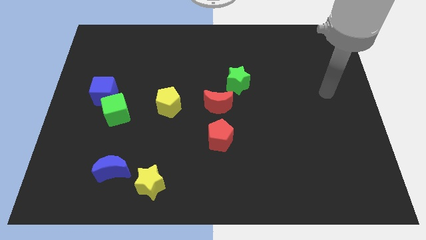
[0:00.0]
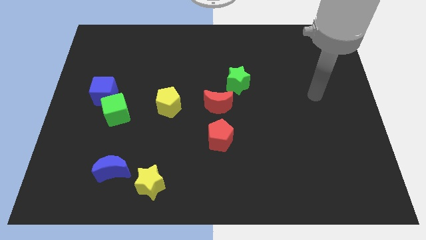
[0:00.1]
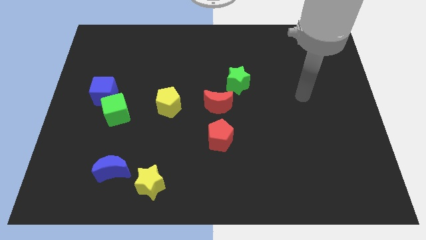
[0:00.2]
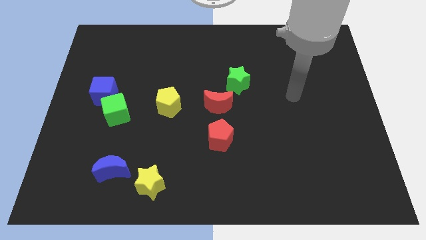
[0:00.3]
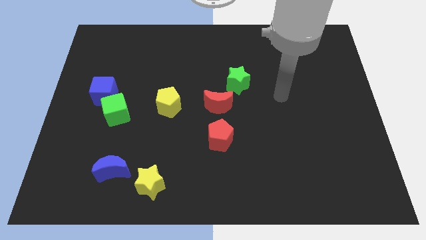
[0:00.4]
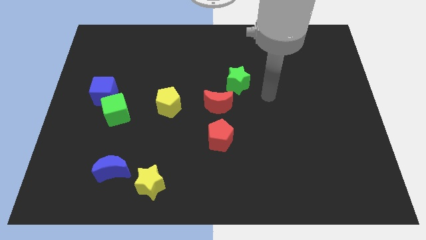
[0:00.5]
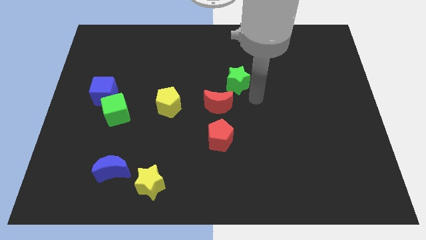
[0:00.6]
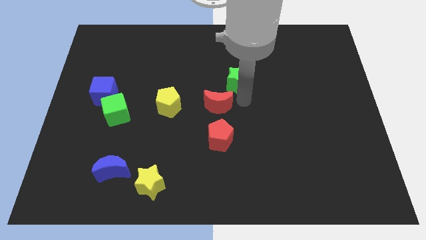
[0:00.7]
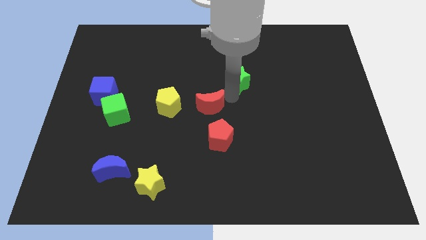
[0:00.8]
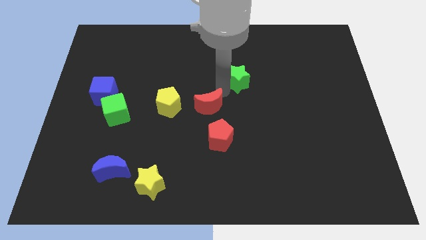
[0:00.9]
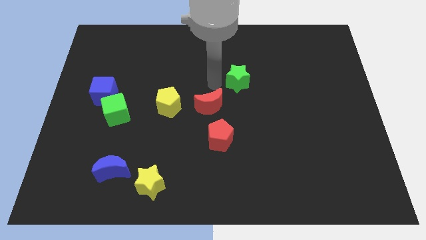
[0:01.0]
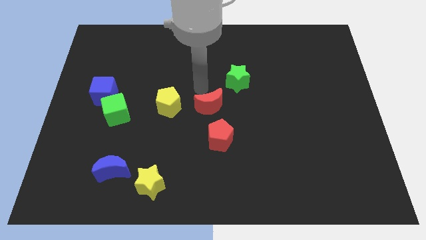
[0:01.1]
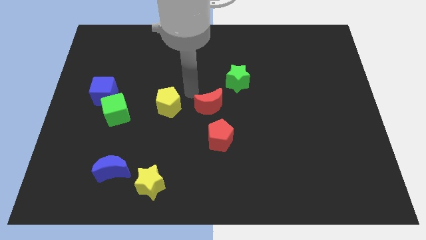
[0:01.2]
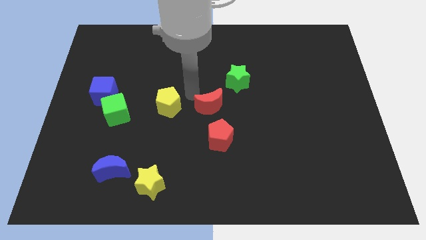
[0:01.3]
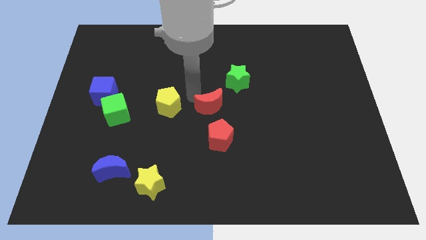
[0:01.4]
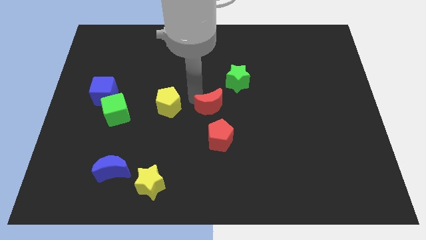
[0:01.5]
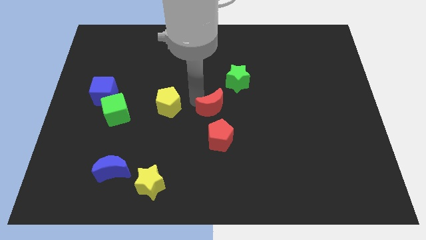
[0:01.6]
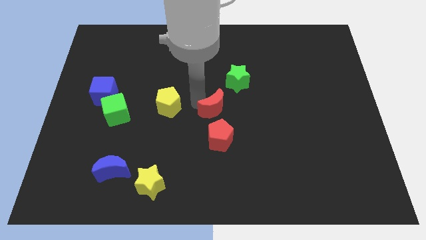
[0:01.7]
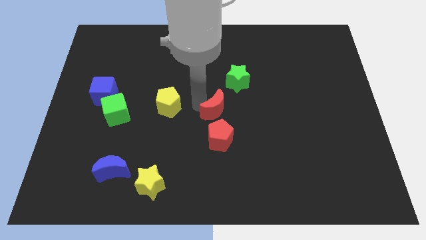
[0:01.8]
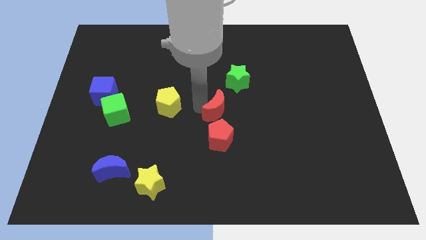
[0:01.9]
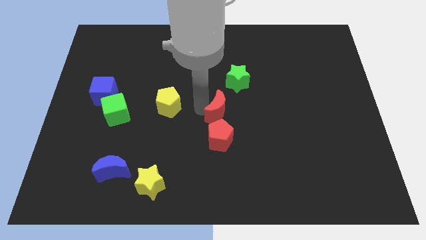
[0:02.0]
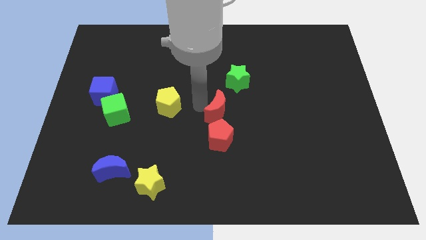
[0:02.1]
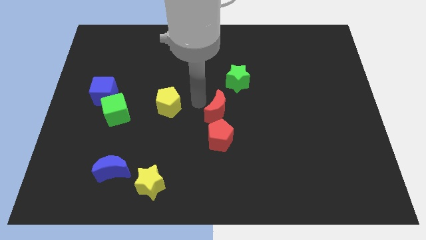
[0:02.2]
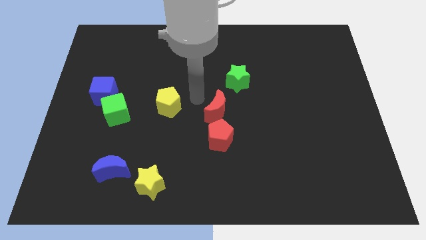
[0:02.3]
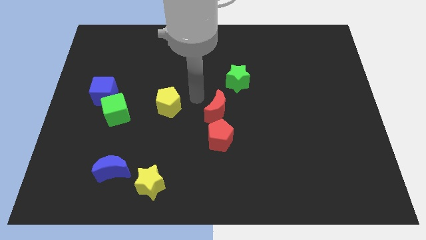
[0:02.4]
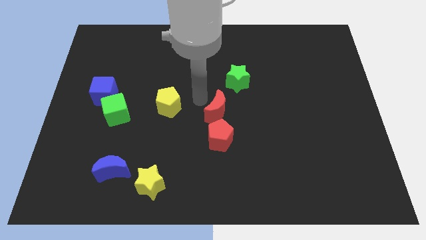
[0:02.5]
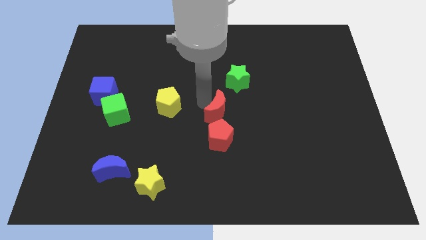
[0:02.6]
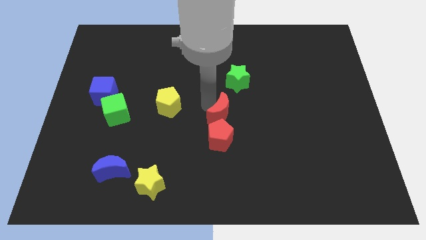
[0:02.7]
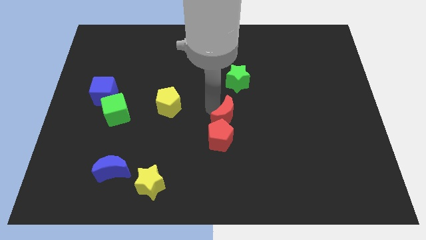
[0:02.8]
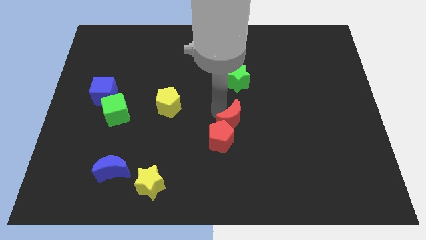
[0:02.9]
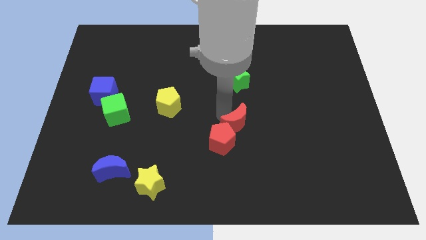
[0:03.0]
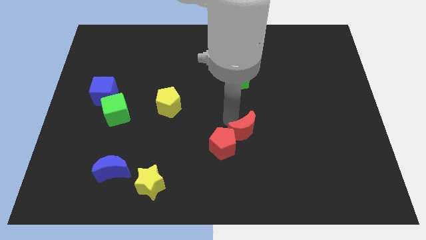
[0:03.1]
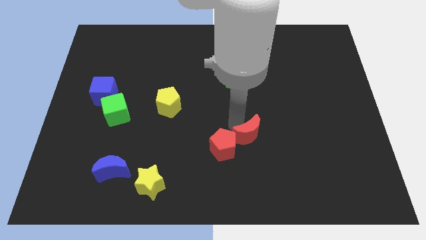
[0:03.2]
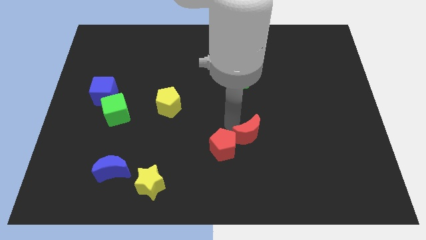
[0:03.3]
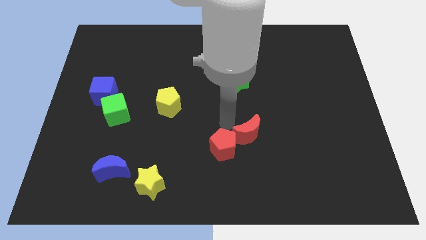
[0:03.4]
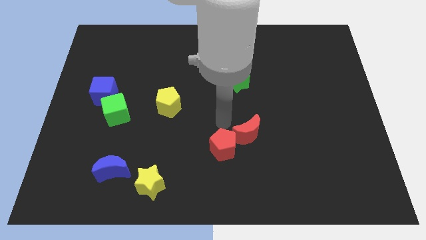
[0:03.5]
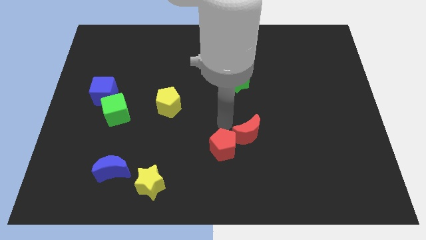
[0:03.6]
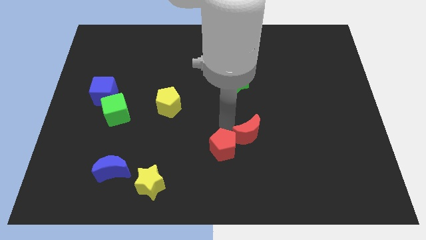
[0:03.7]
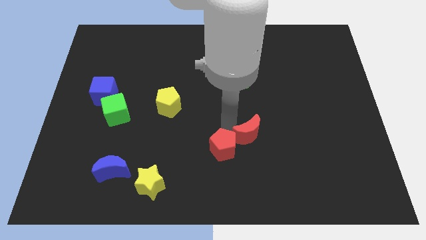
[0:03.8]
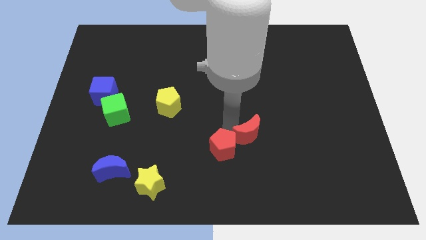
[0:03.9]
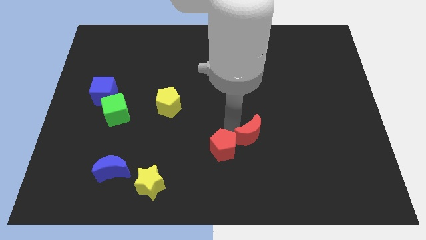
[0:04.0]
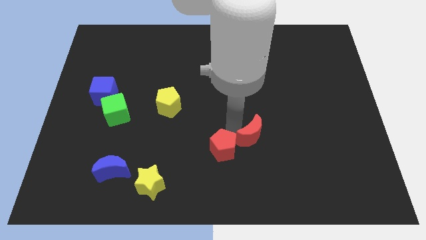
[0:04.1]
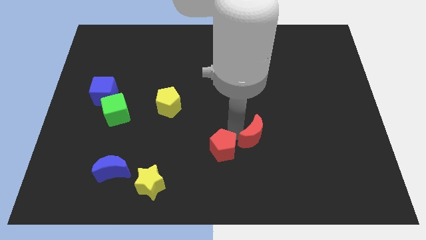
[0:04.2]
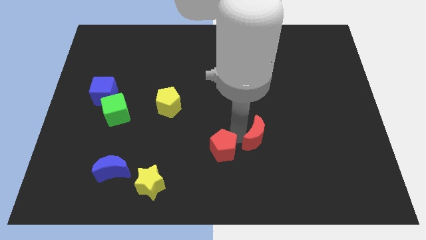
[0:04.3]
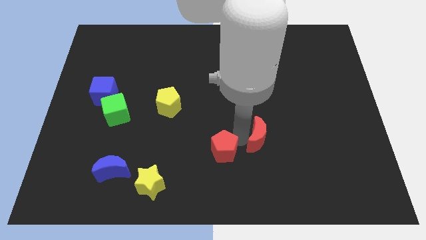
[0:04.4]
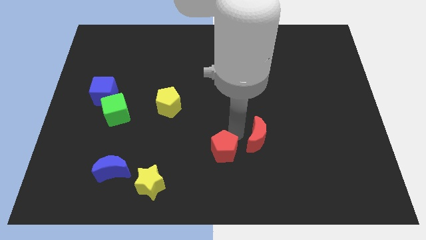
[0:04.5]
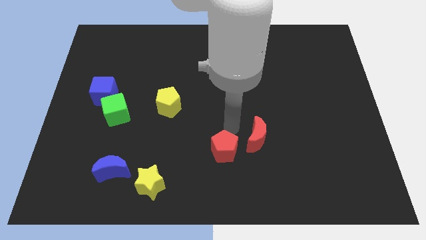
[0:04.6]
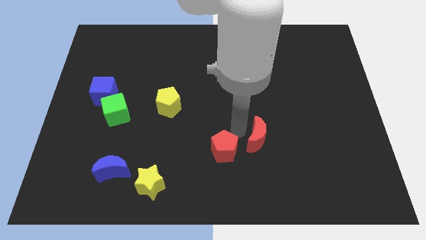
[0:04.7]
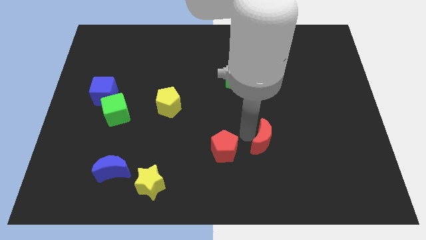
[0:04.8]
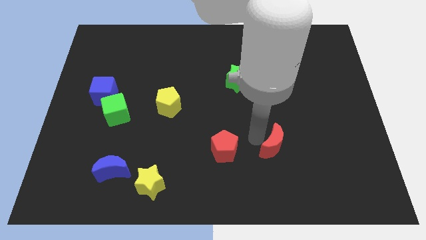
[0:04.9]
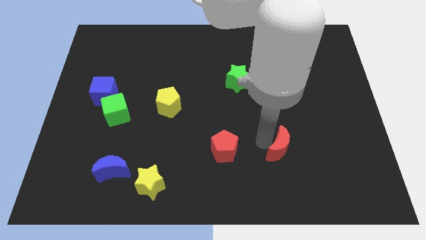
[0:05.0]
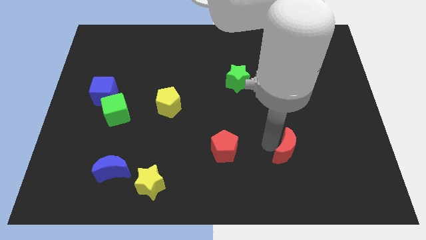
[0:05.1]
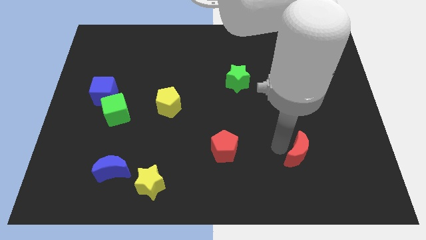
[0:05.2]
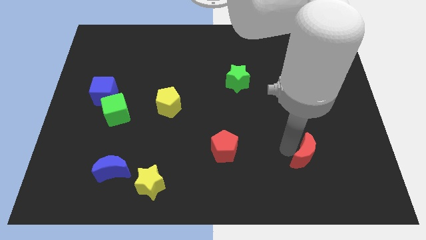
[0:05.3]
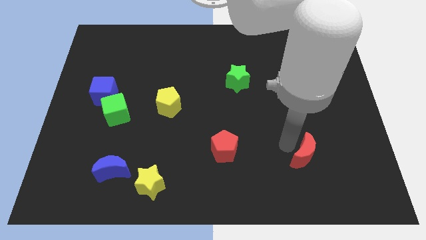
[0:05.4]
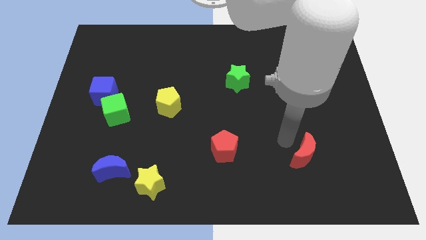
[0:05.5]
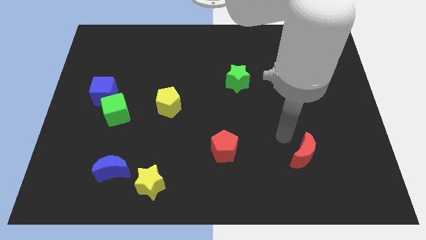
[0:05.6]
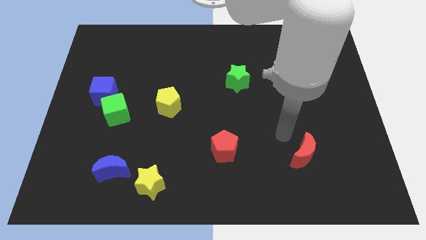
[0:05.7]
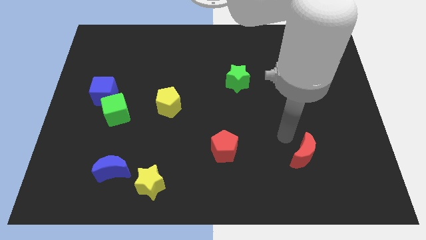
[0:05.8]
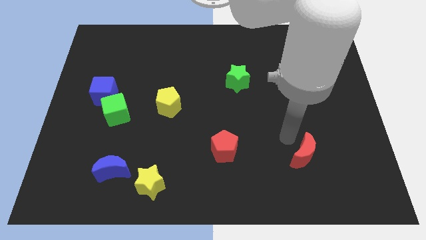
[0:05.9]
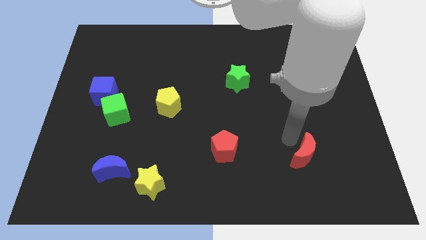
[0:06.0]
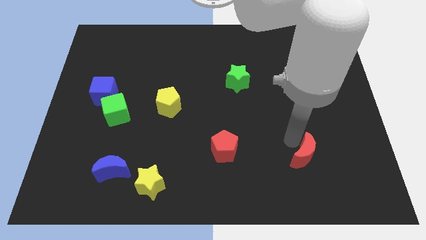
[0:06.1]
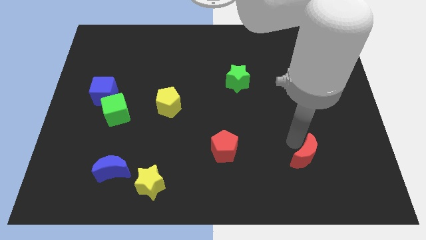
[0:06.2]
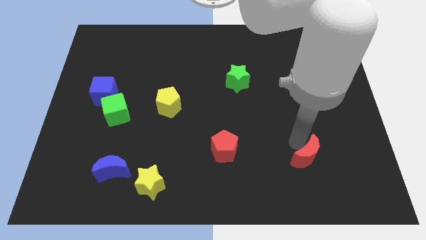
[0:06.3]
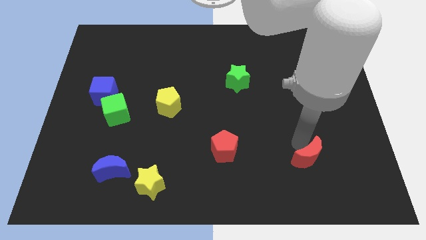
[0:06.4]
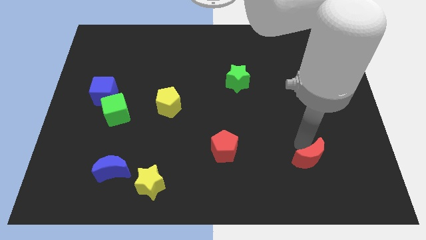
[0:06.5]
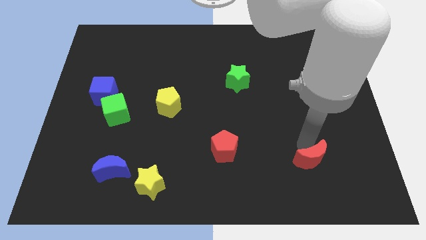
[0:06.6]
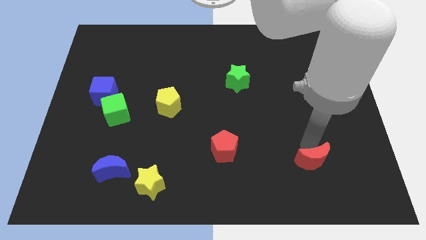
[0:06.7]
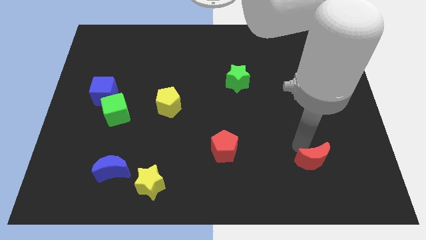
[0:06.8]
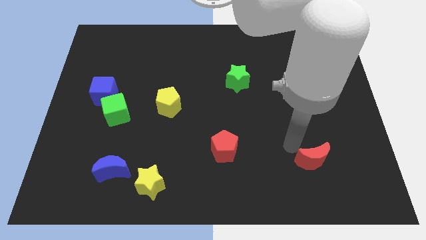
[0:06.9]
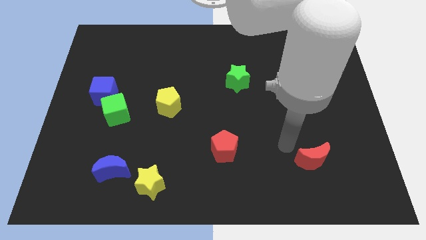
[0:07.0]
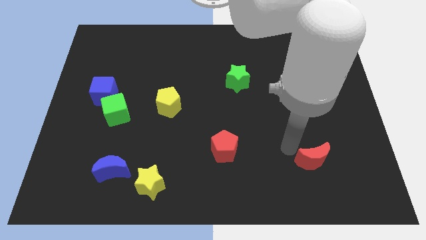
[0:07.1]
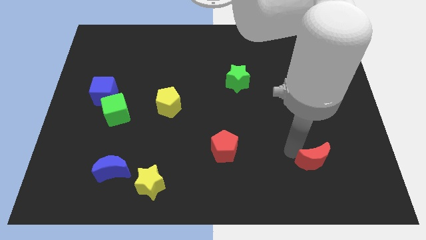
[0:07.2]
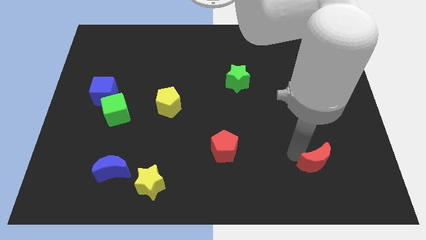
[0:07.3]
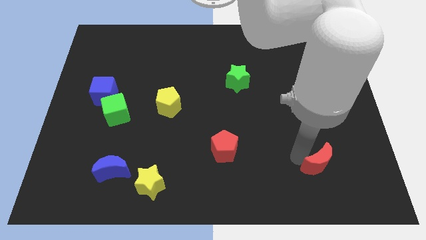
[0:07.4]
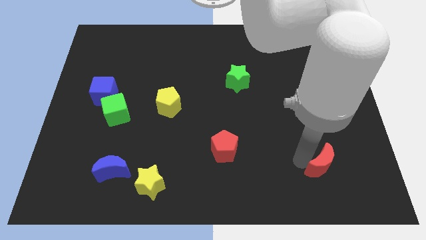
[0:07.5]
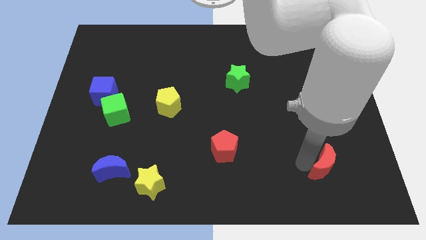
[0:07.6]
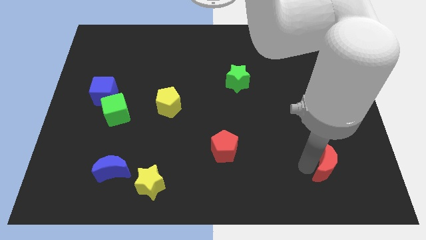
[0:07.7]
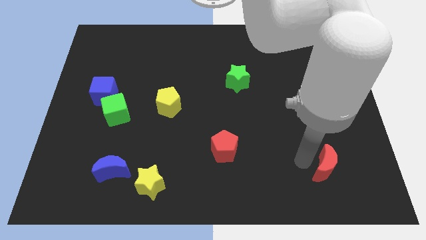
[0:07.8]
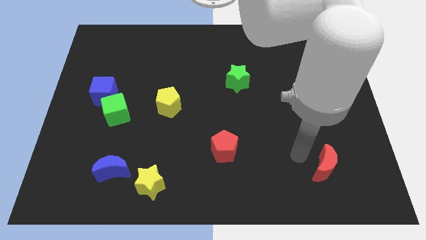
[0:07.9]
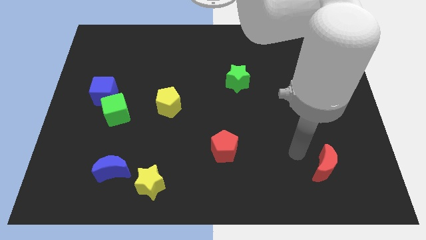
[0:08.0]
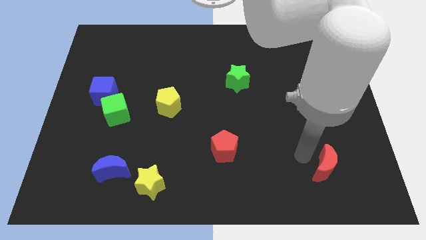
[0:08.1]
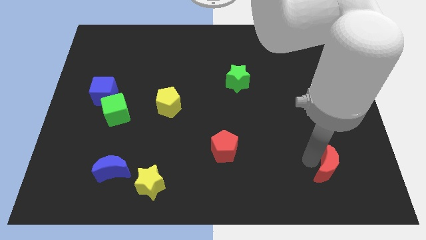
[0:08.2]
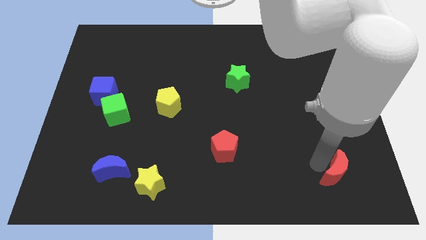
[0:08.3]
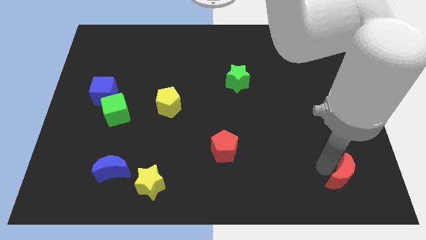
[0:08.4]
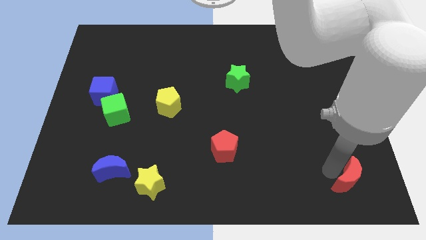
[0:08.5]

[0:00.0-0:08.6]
move the red moon to the bottom right
